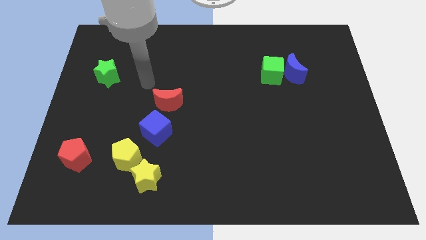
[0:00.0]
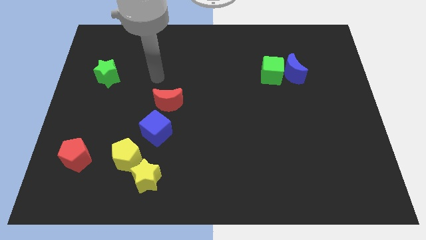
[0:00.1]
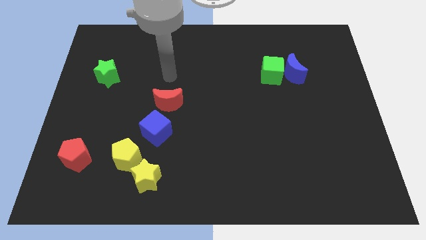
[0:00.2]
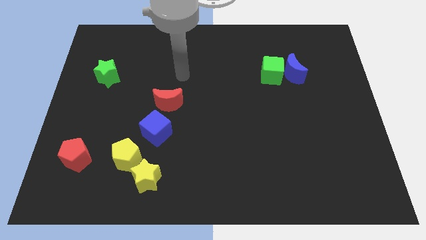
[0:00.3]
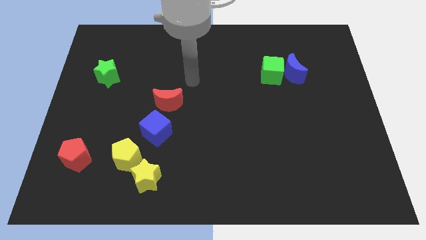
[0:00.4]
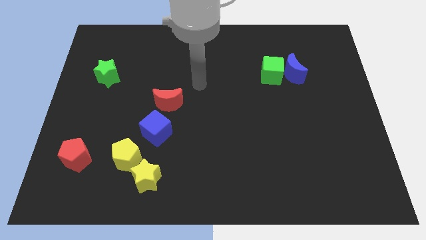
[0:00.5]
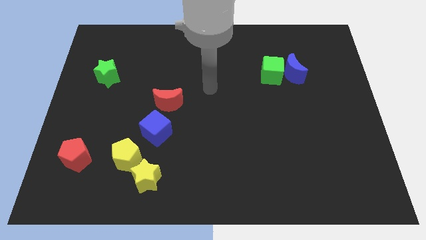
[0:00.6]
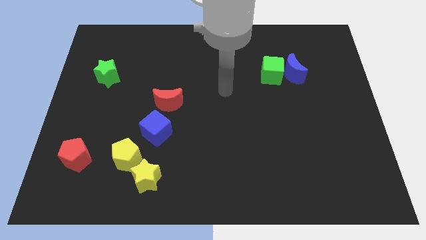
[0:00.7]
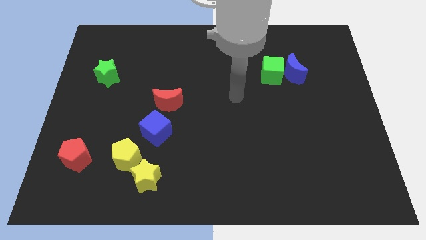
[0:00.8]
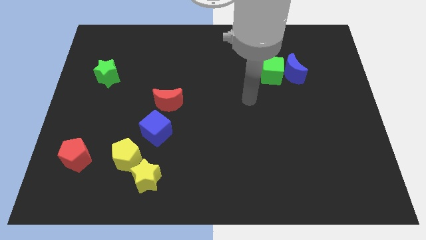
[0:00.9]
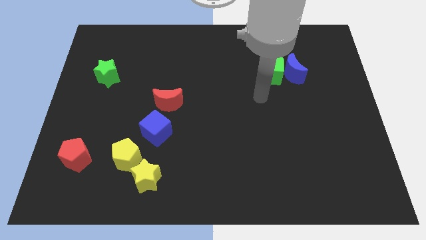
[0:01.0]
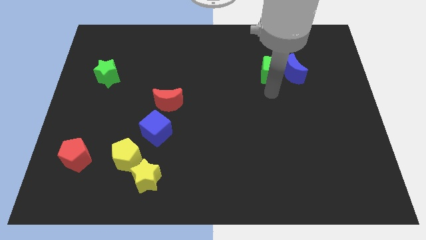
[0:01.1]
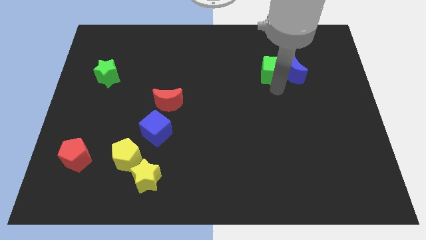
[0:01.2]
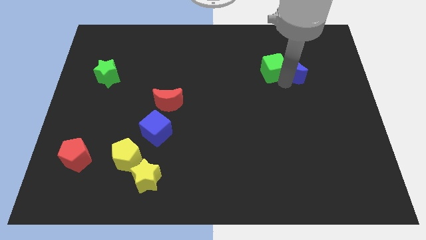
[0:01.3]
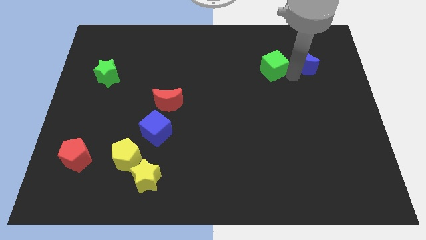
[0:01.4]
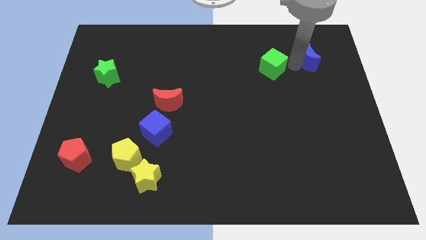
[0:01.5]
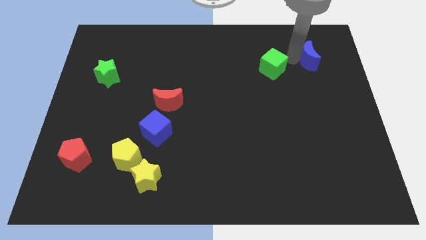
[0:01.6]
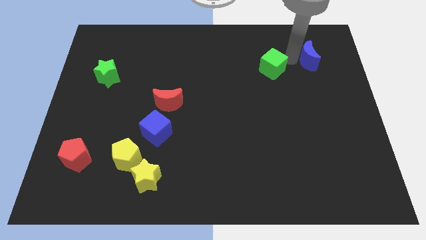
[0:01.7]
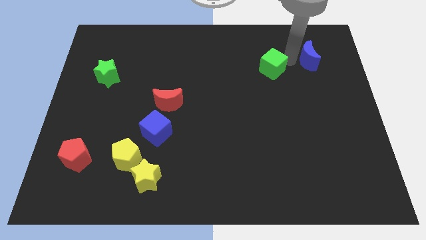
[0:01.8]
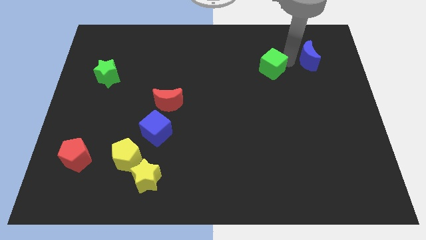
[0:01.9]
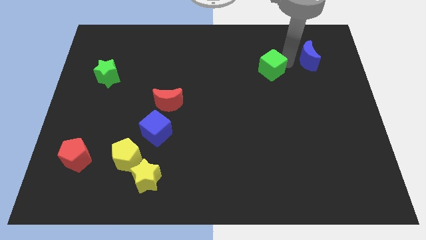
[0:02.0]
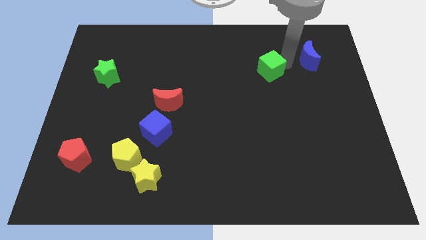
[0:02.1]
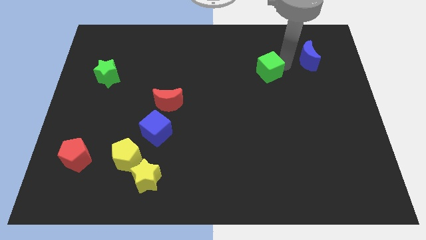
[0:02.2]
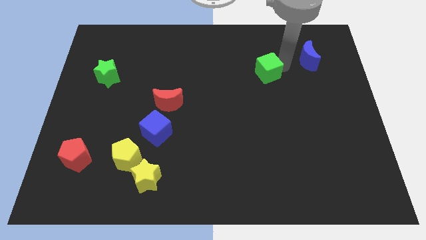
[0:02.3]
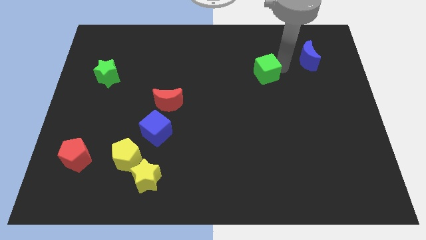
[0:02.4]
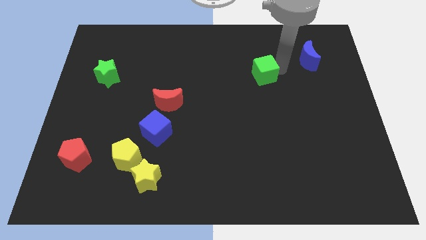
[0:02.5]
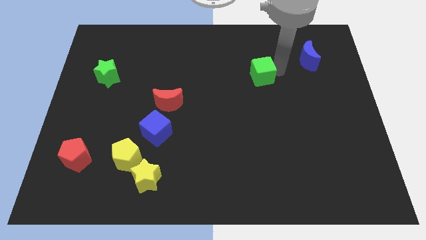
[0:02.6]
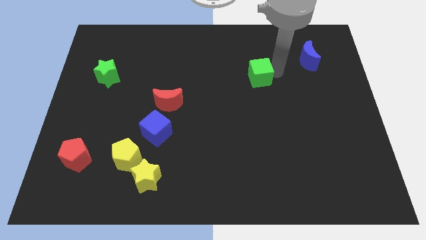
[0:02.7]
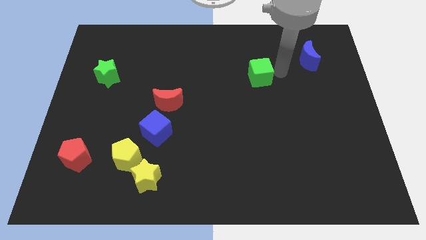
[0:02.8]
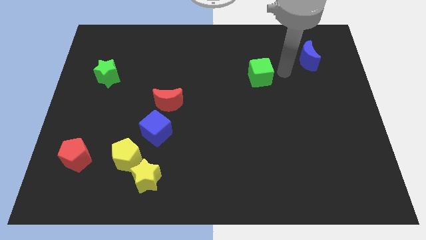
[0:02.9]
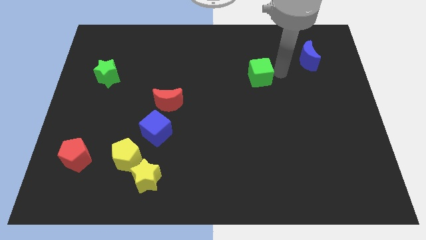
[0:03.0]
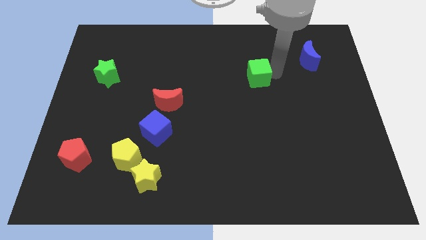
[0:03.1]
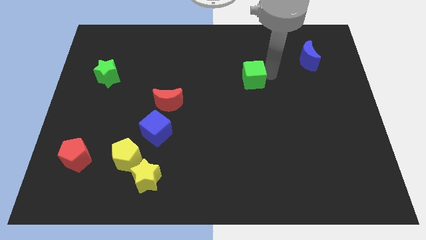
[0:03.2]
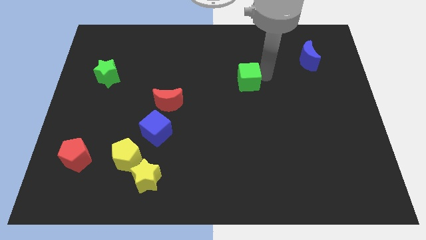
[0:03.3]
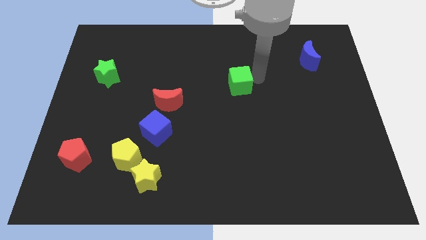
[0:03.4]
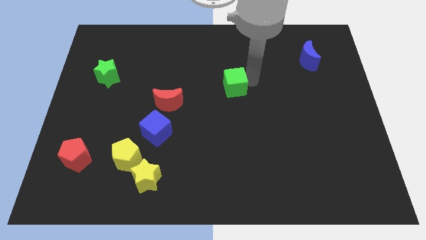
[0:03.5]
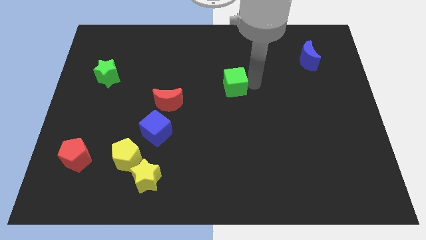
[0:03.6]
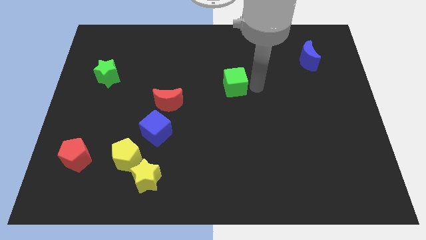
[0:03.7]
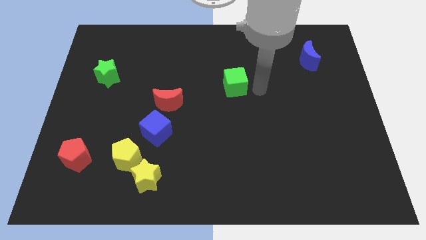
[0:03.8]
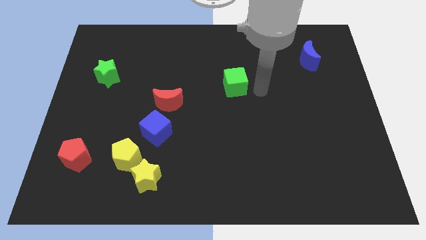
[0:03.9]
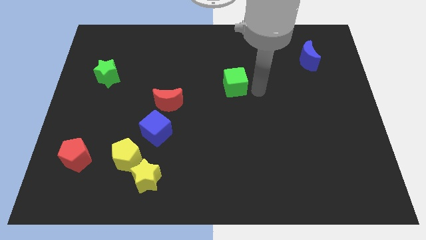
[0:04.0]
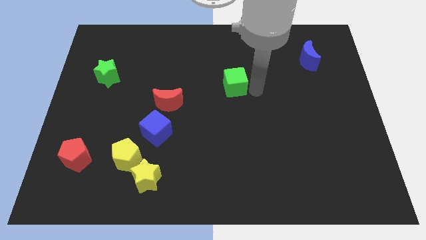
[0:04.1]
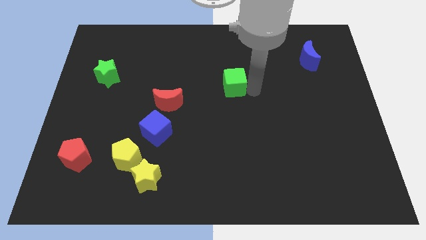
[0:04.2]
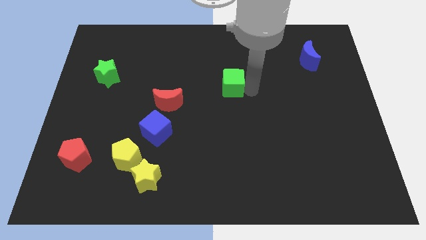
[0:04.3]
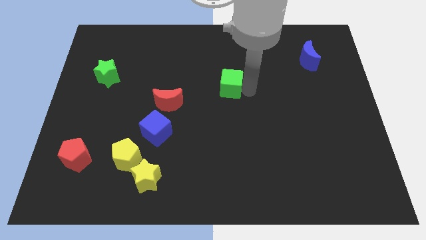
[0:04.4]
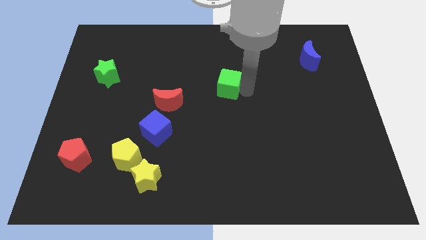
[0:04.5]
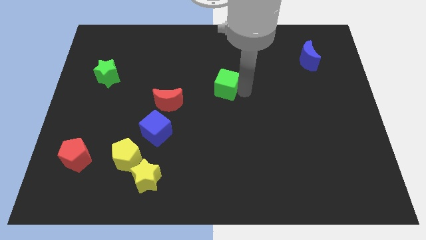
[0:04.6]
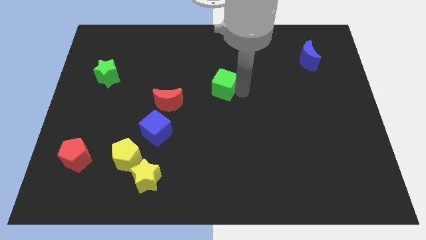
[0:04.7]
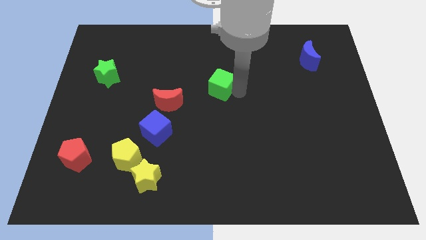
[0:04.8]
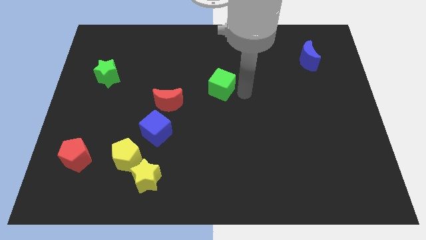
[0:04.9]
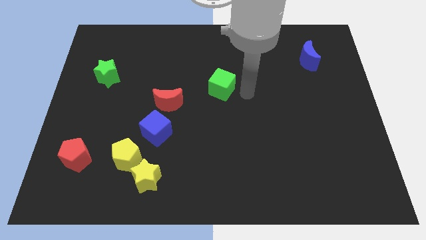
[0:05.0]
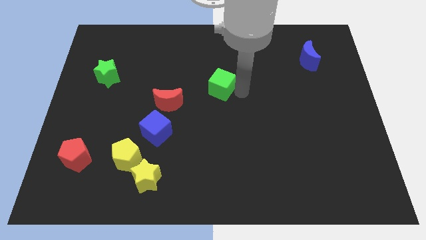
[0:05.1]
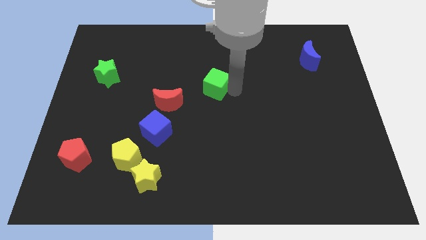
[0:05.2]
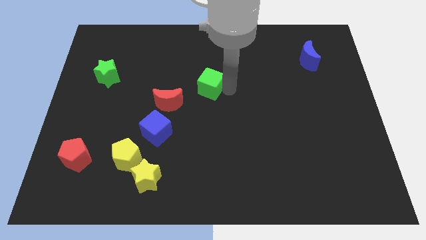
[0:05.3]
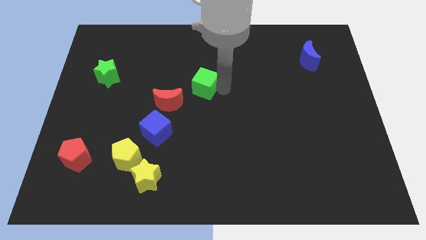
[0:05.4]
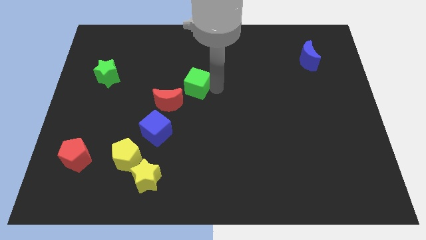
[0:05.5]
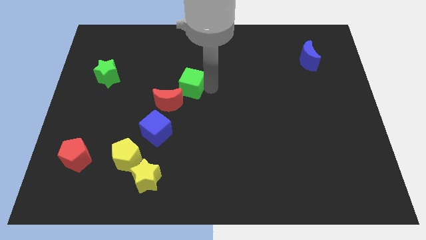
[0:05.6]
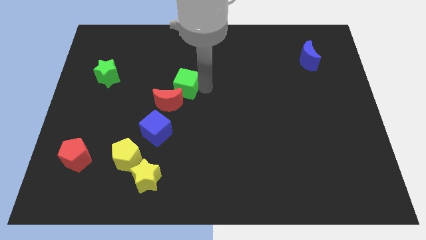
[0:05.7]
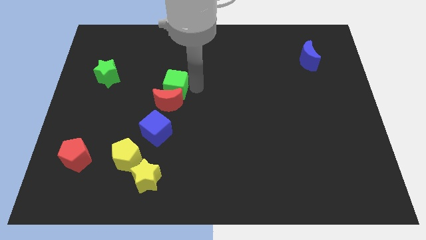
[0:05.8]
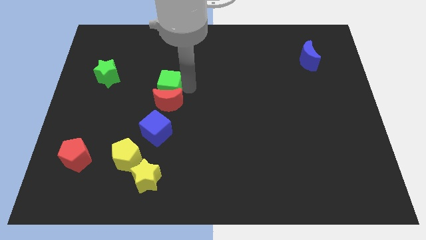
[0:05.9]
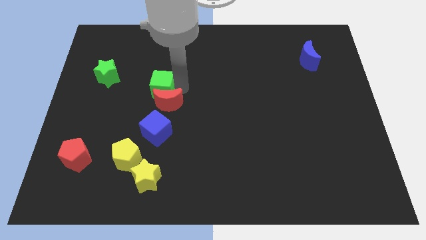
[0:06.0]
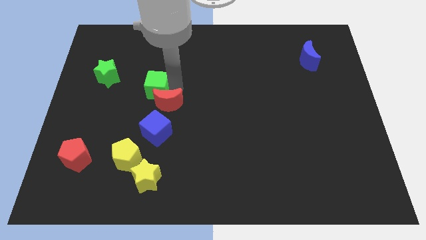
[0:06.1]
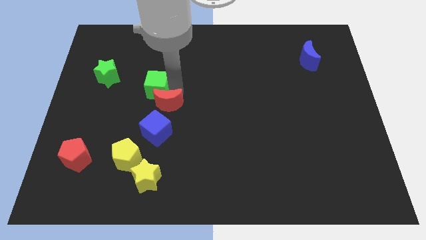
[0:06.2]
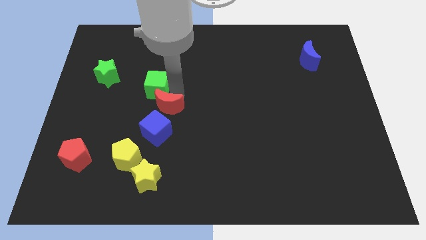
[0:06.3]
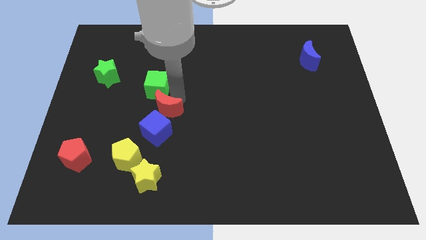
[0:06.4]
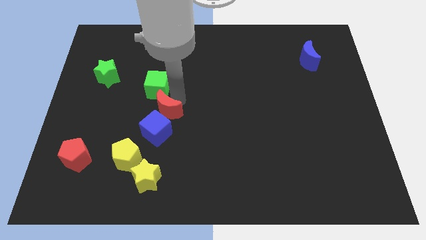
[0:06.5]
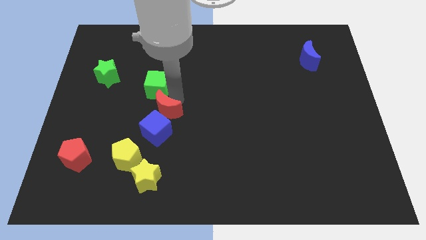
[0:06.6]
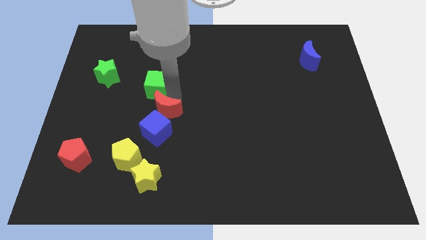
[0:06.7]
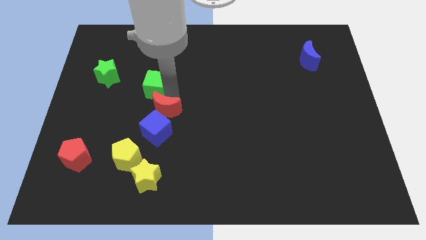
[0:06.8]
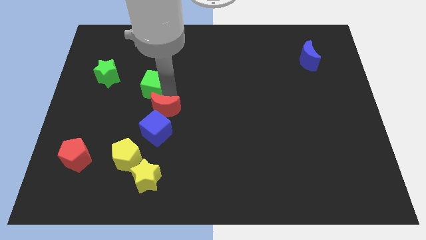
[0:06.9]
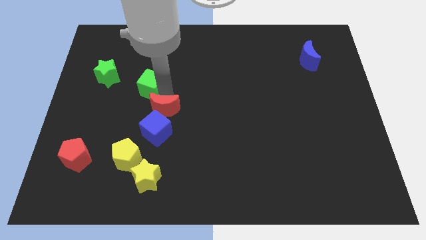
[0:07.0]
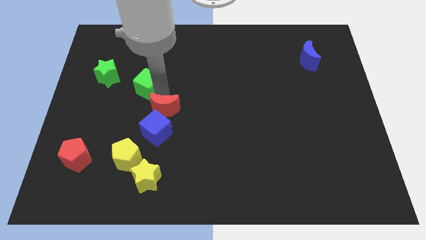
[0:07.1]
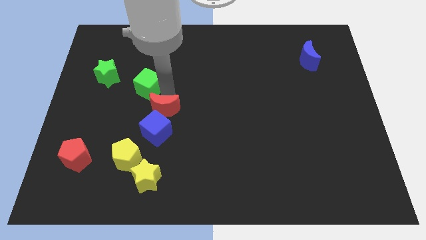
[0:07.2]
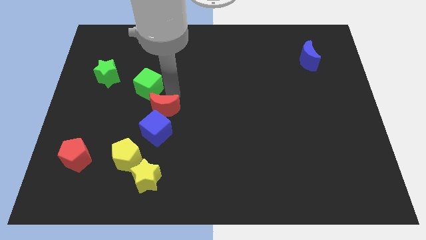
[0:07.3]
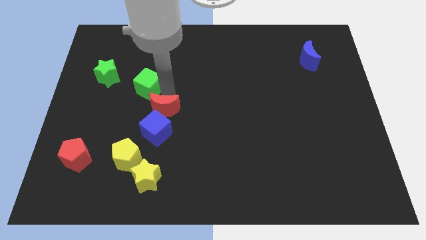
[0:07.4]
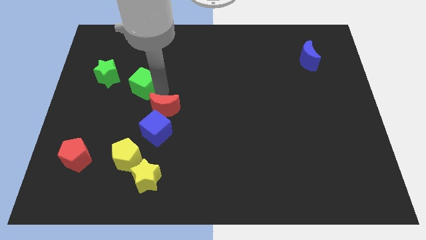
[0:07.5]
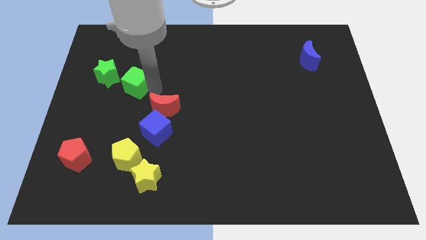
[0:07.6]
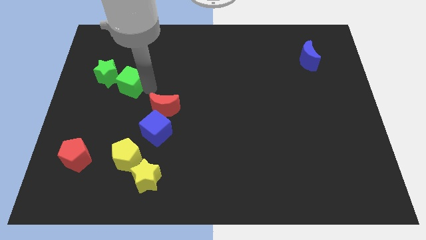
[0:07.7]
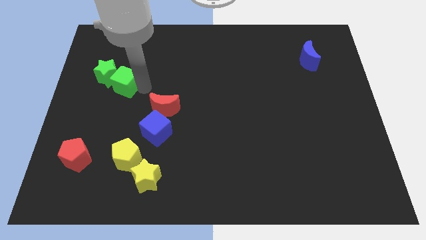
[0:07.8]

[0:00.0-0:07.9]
slide the green cube next to the green star
